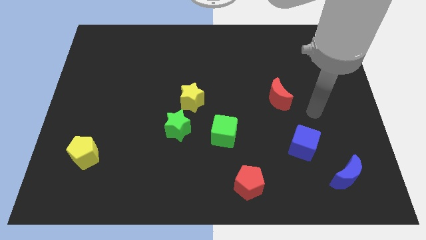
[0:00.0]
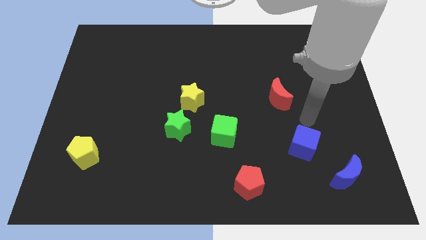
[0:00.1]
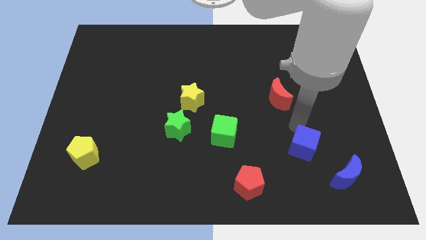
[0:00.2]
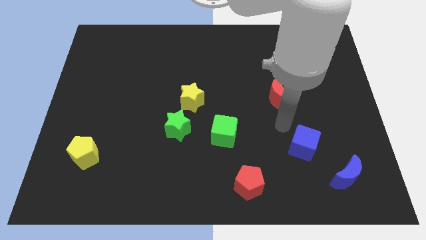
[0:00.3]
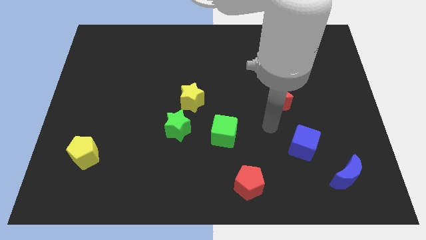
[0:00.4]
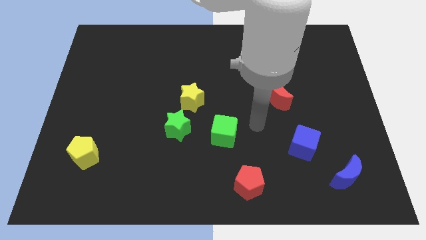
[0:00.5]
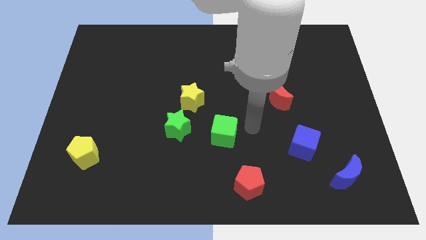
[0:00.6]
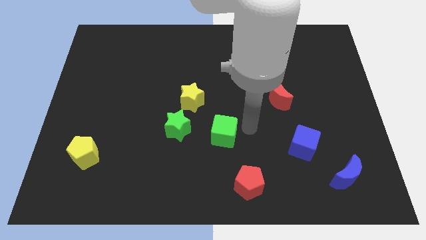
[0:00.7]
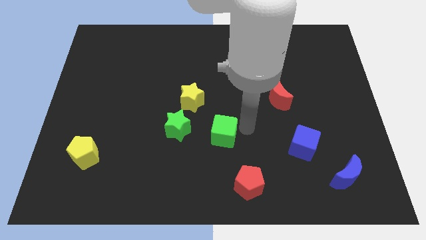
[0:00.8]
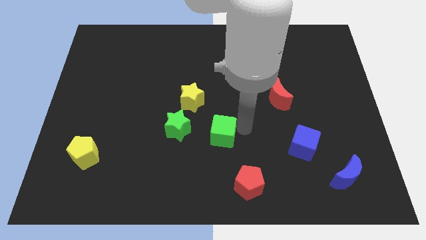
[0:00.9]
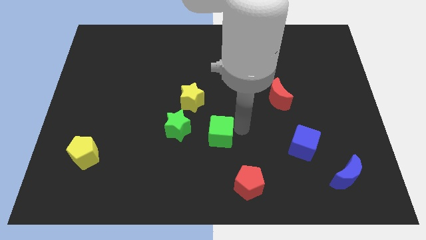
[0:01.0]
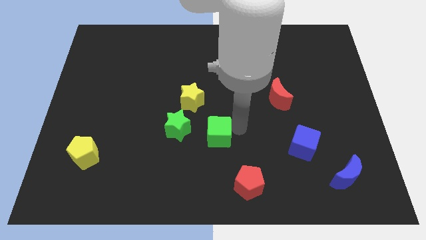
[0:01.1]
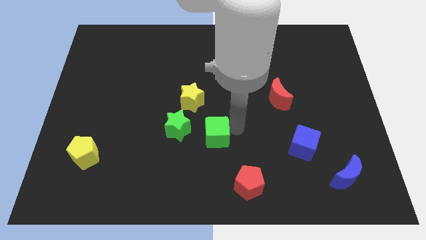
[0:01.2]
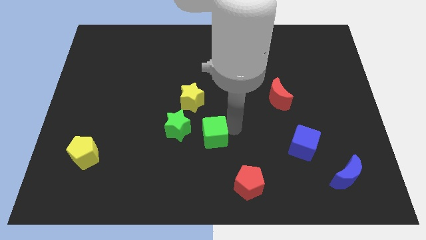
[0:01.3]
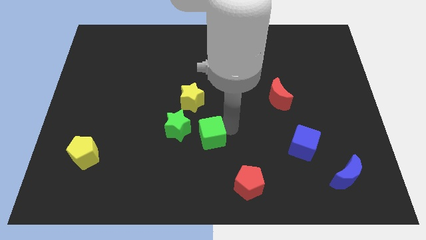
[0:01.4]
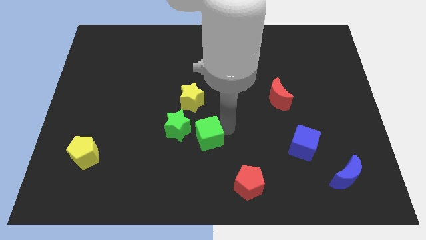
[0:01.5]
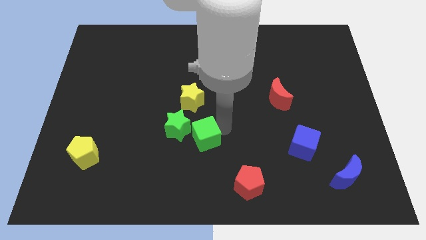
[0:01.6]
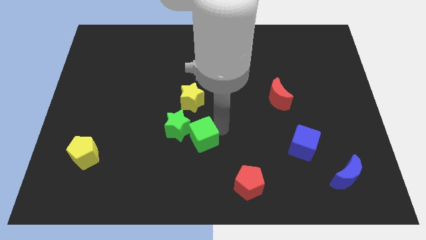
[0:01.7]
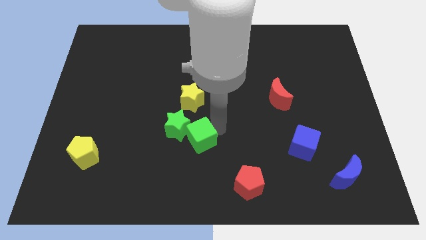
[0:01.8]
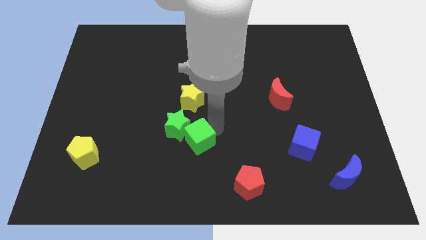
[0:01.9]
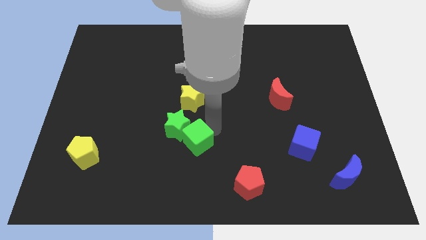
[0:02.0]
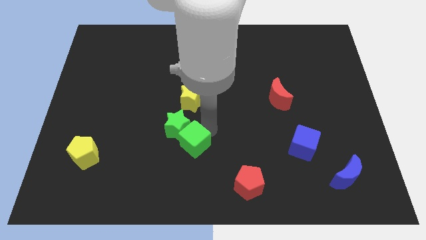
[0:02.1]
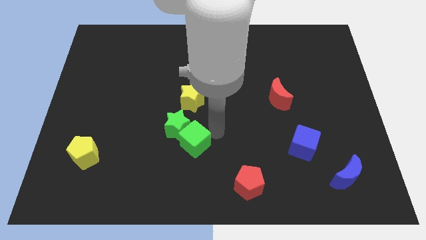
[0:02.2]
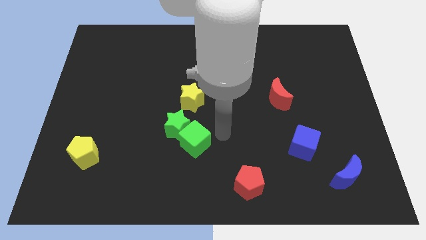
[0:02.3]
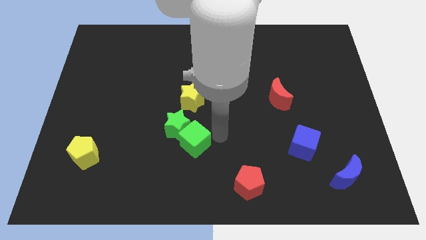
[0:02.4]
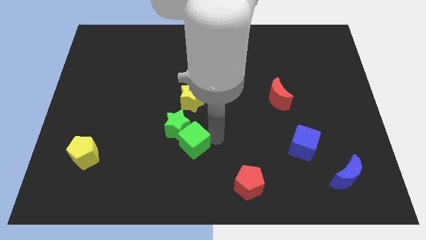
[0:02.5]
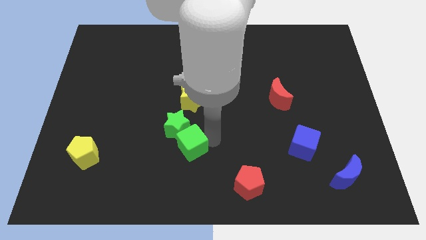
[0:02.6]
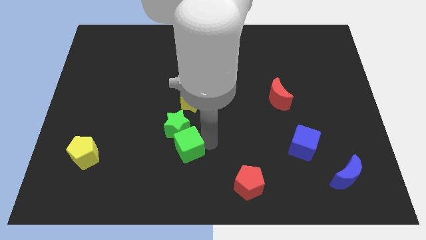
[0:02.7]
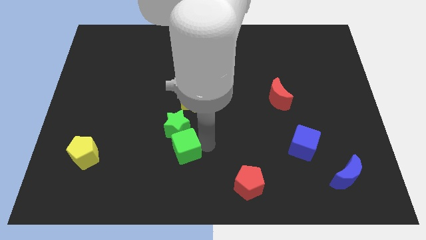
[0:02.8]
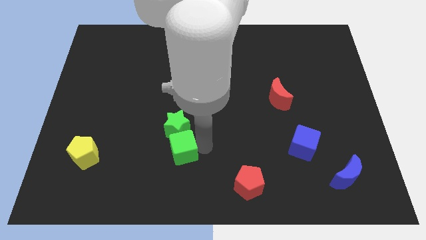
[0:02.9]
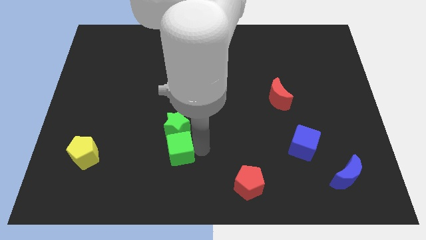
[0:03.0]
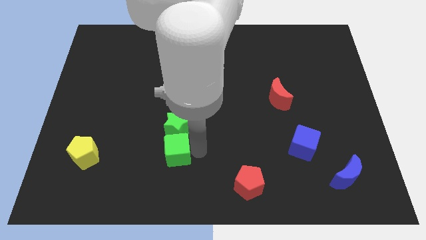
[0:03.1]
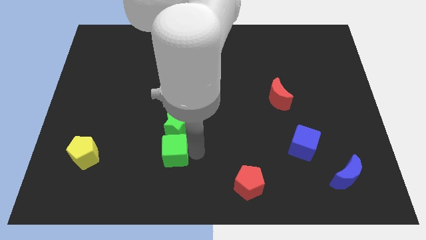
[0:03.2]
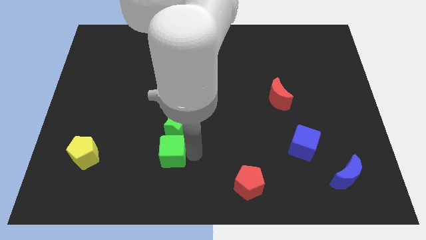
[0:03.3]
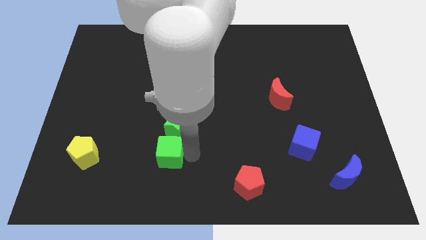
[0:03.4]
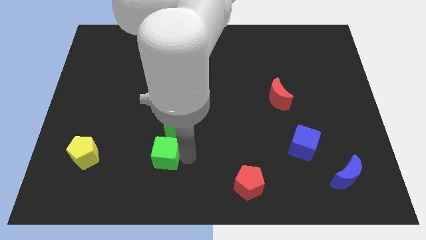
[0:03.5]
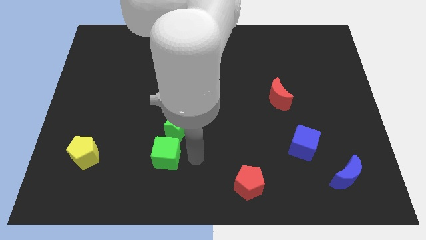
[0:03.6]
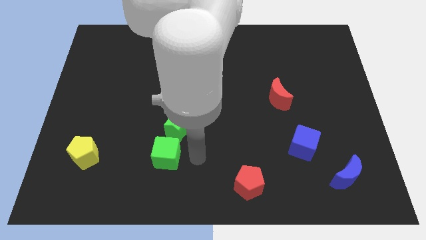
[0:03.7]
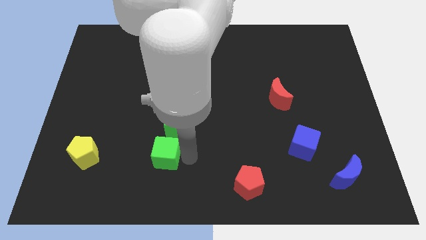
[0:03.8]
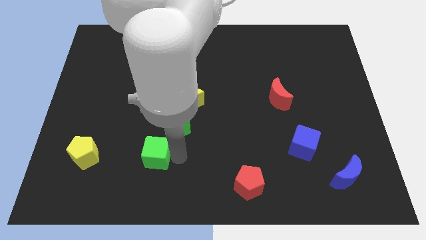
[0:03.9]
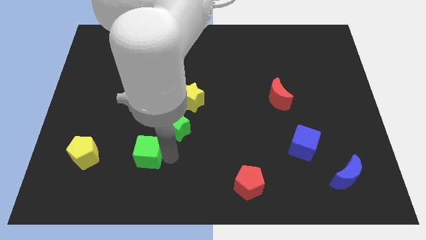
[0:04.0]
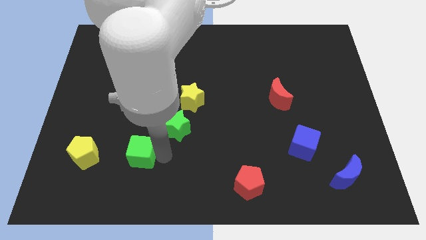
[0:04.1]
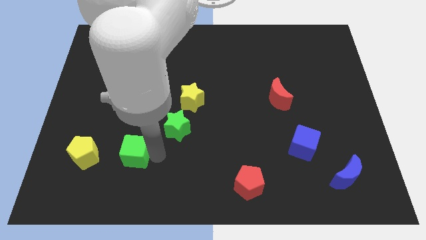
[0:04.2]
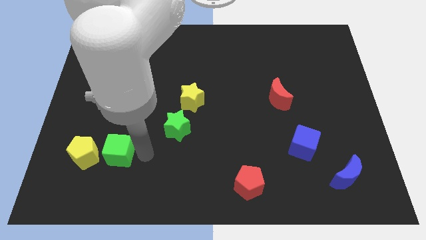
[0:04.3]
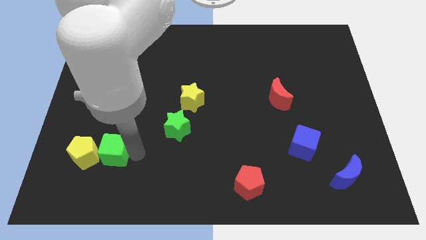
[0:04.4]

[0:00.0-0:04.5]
slide the green cube towards the yellow pentagon

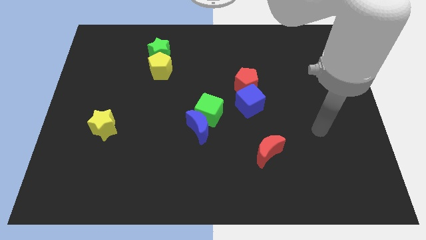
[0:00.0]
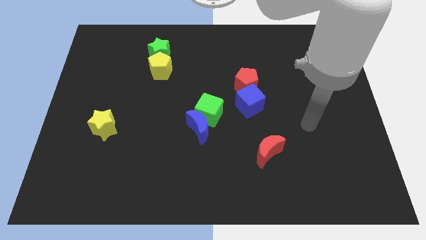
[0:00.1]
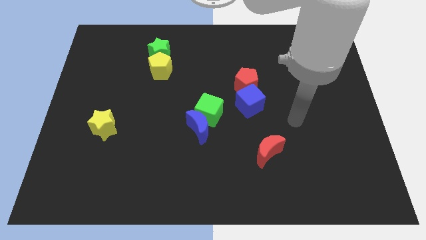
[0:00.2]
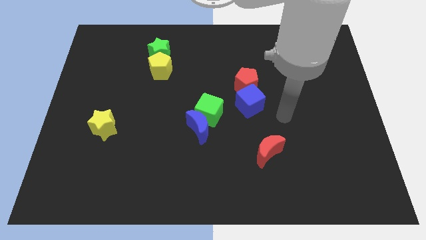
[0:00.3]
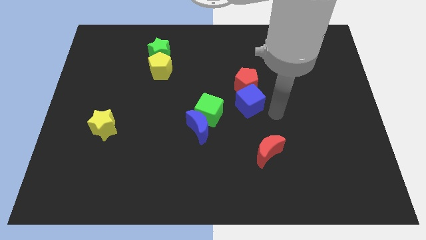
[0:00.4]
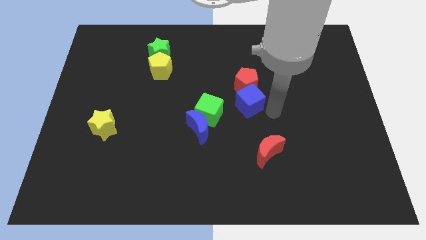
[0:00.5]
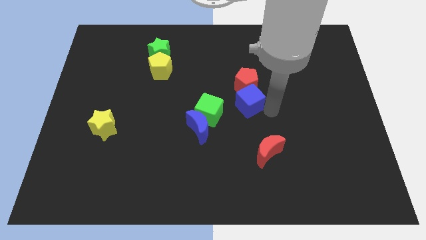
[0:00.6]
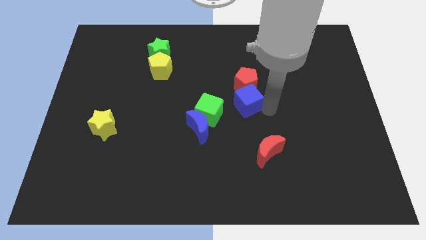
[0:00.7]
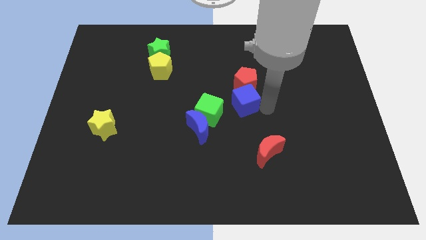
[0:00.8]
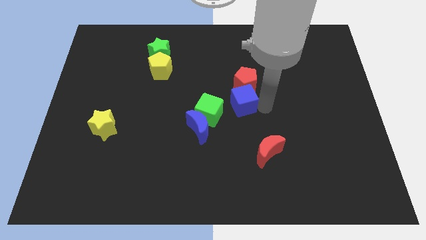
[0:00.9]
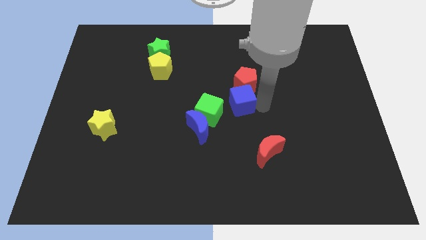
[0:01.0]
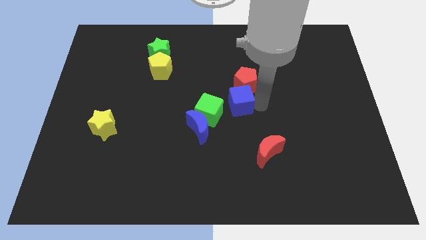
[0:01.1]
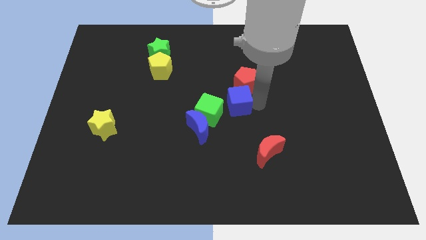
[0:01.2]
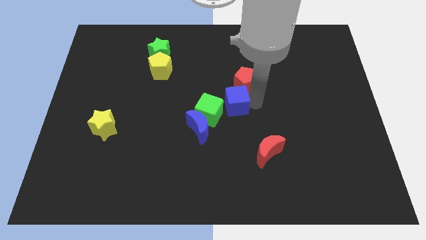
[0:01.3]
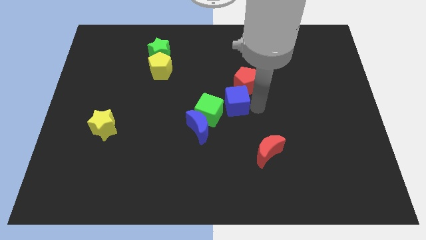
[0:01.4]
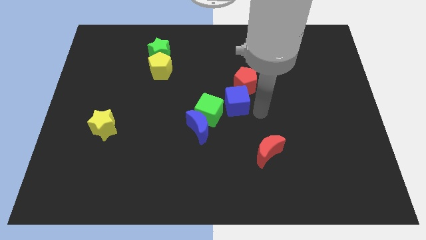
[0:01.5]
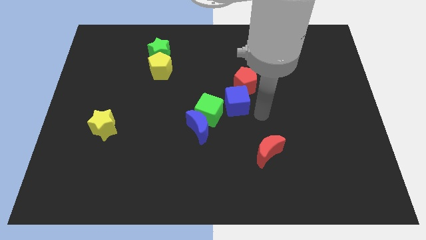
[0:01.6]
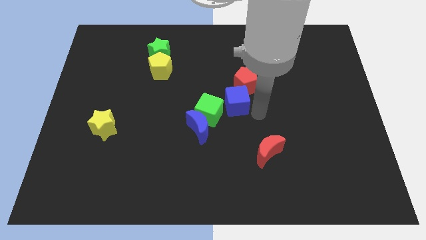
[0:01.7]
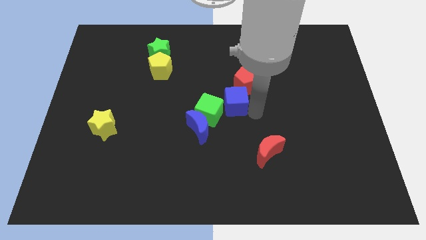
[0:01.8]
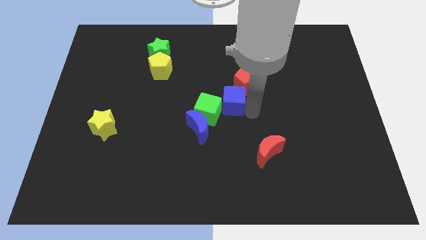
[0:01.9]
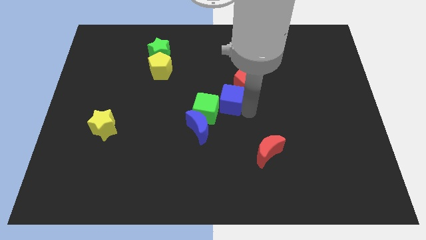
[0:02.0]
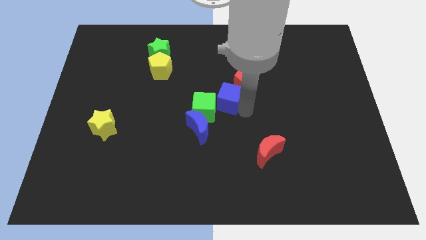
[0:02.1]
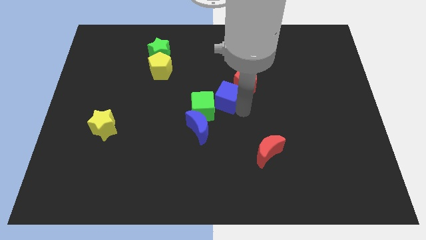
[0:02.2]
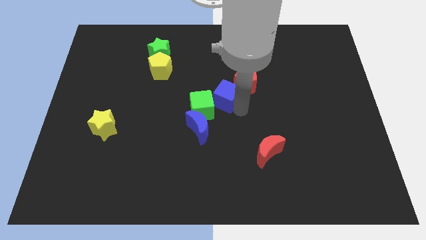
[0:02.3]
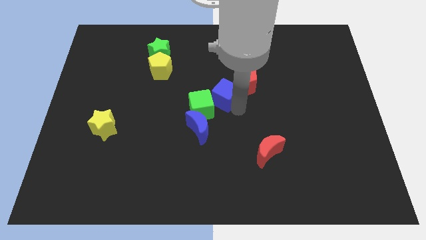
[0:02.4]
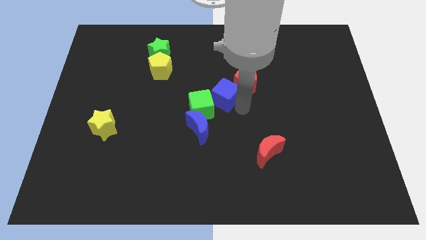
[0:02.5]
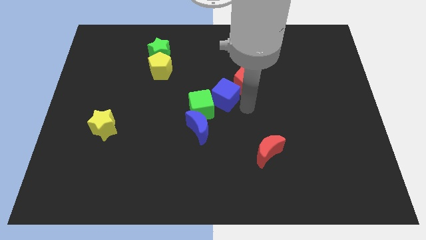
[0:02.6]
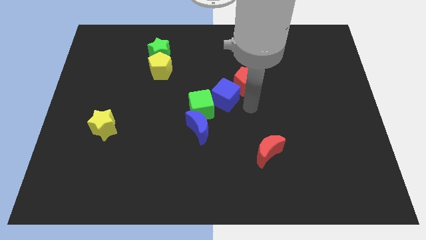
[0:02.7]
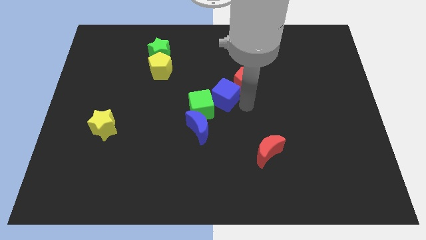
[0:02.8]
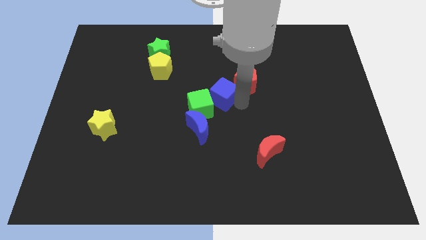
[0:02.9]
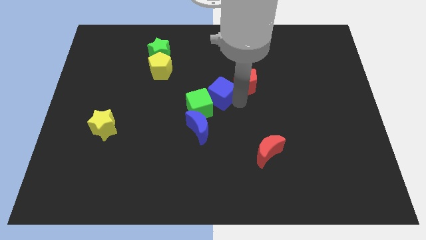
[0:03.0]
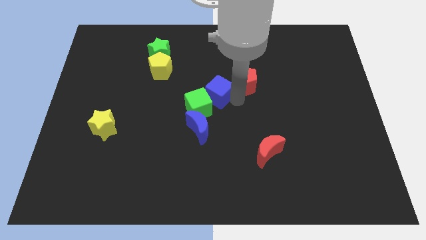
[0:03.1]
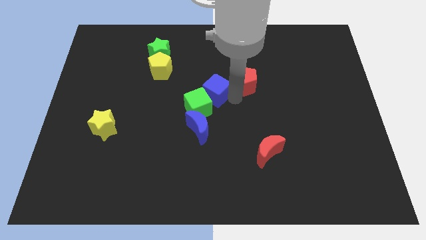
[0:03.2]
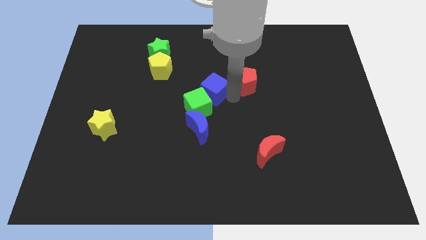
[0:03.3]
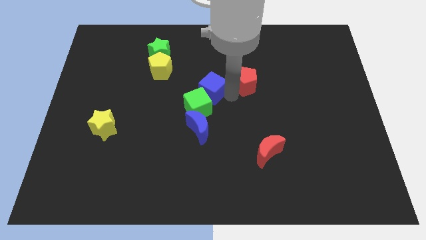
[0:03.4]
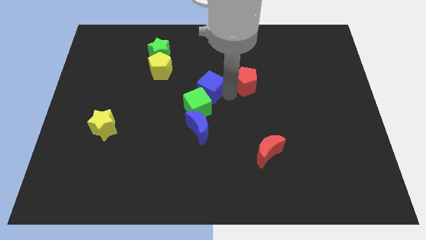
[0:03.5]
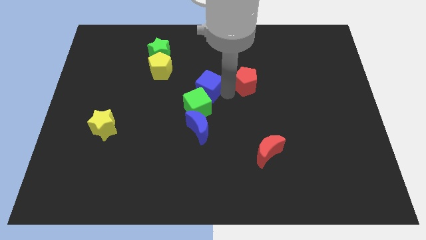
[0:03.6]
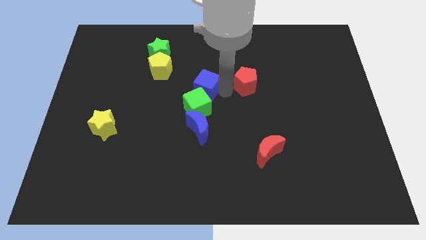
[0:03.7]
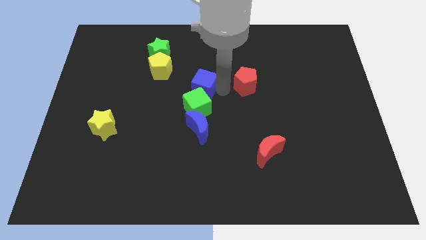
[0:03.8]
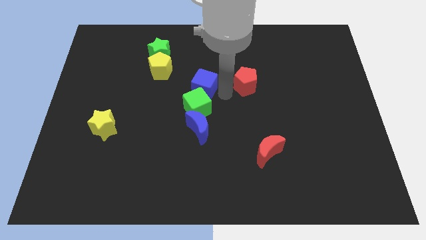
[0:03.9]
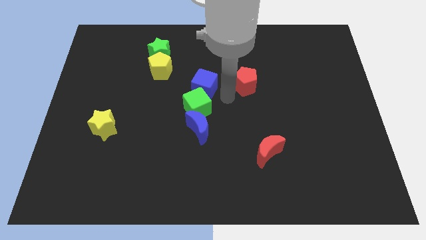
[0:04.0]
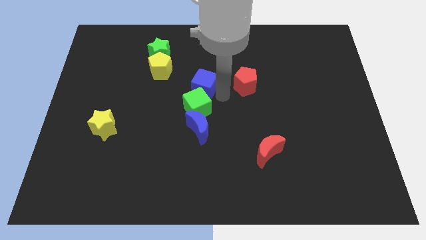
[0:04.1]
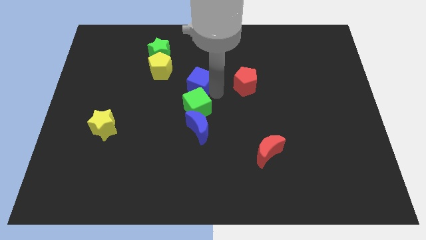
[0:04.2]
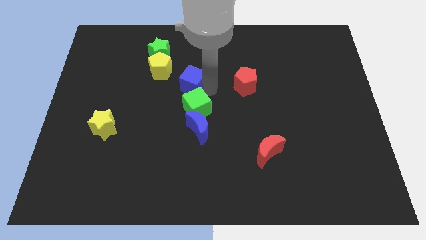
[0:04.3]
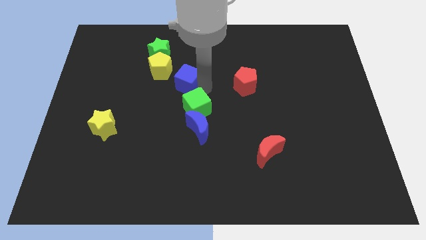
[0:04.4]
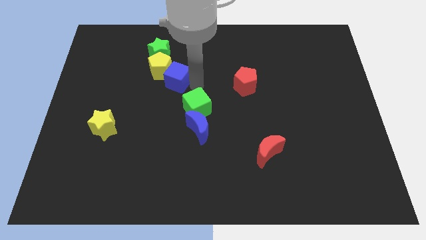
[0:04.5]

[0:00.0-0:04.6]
slide the blue cube towards the yellow pentagon

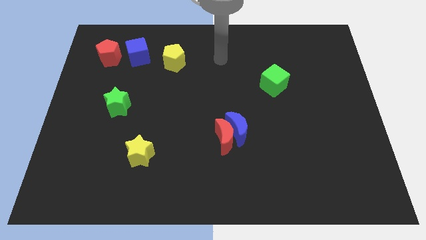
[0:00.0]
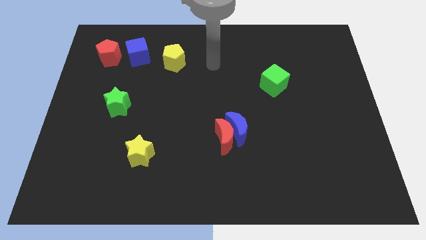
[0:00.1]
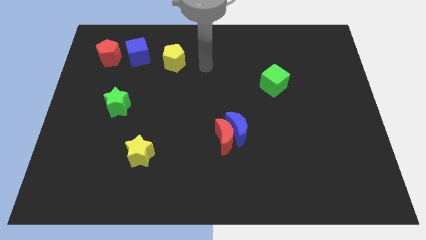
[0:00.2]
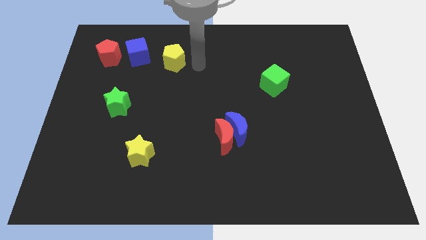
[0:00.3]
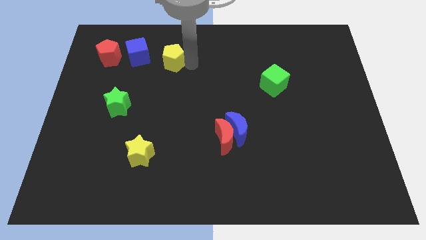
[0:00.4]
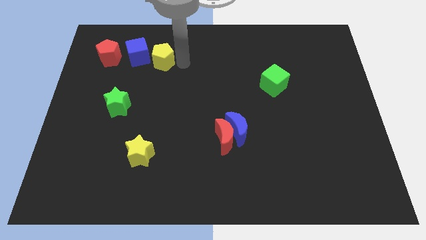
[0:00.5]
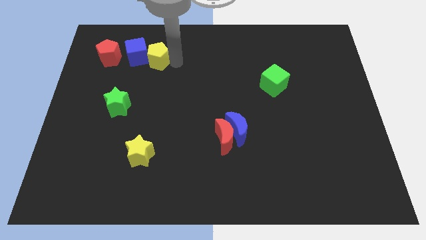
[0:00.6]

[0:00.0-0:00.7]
push the yellow pentagon close to the blue cube
